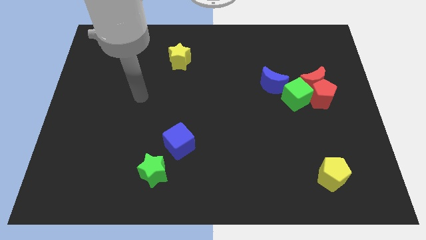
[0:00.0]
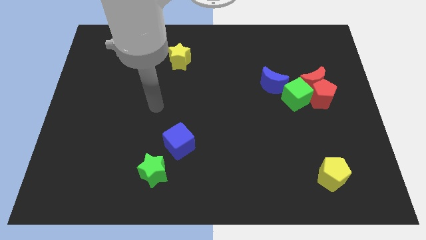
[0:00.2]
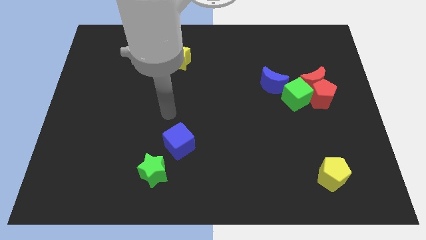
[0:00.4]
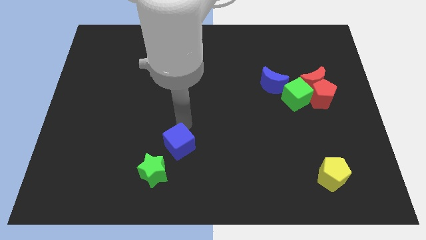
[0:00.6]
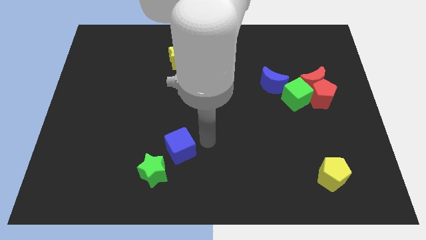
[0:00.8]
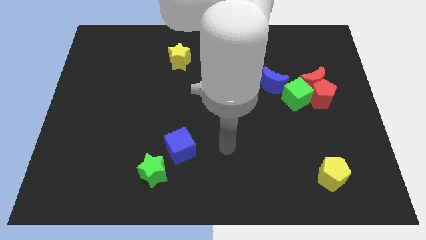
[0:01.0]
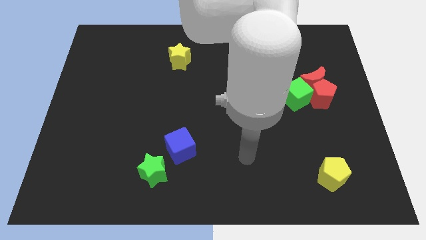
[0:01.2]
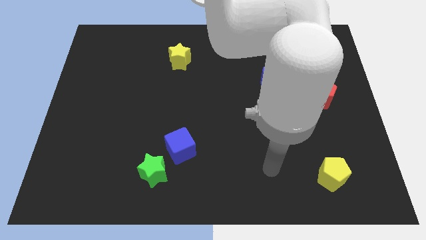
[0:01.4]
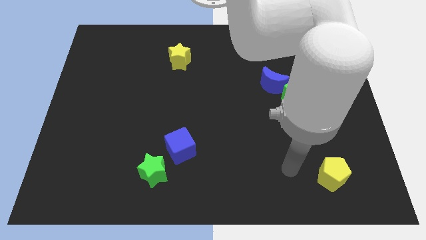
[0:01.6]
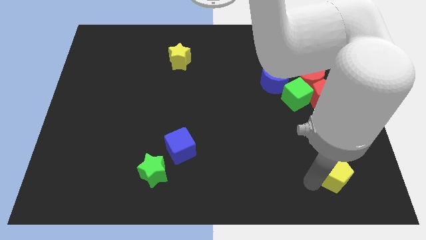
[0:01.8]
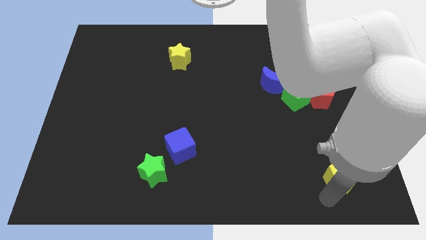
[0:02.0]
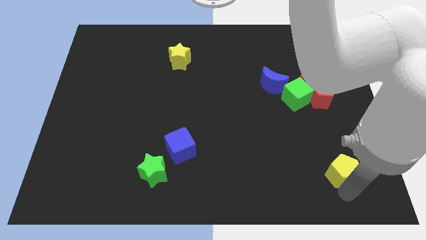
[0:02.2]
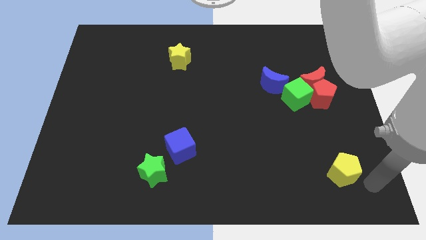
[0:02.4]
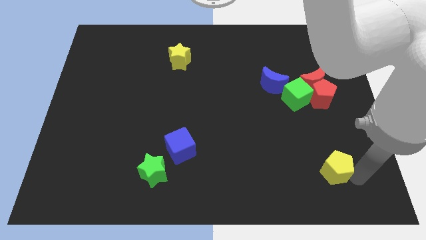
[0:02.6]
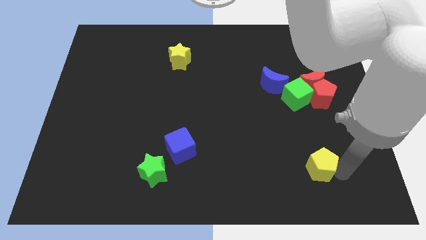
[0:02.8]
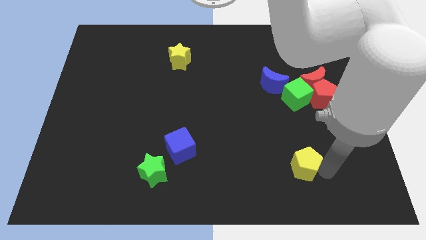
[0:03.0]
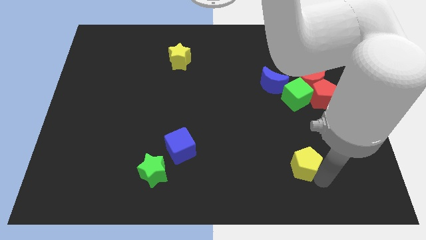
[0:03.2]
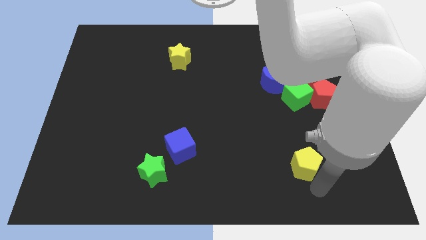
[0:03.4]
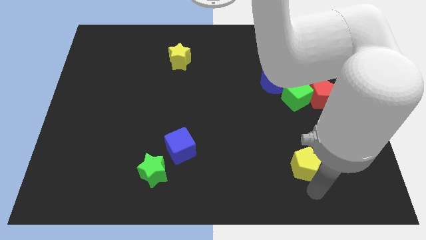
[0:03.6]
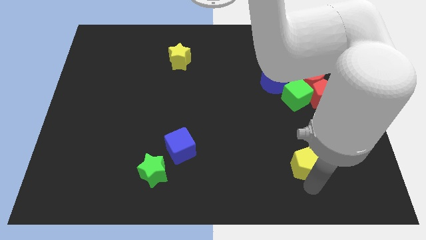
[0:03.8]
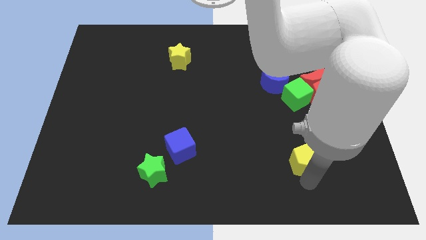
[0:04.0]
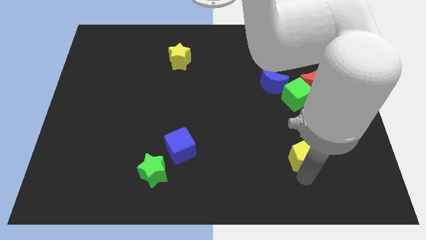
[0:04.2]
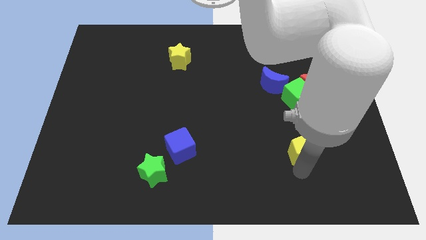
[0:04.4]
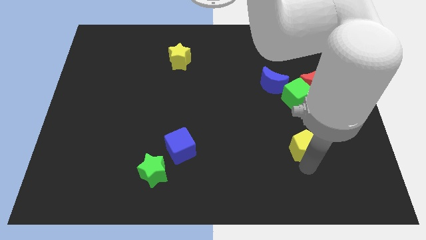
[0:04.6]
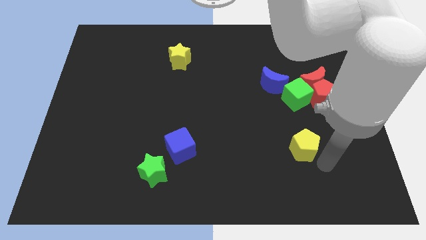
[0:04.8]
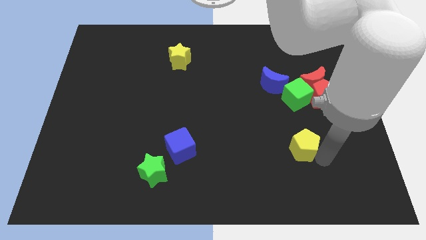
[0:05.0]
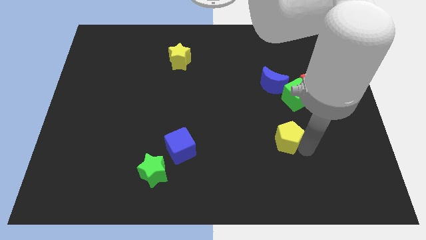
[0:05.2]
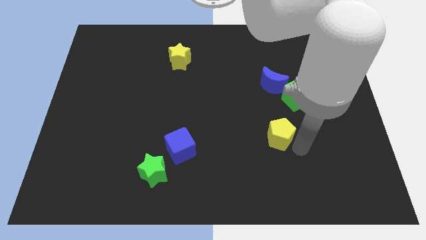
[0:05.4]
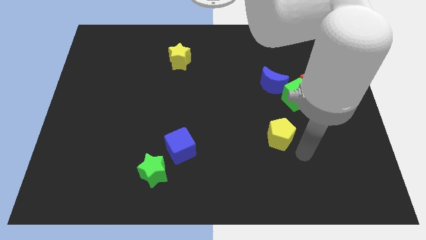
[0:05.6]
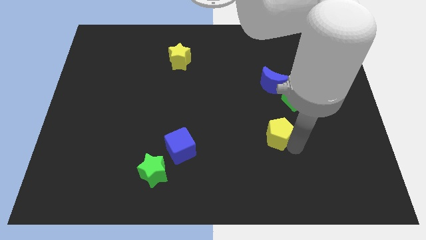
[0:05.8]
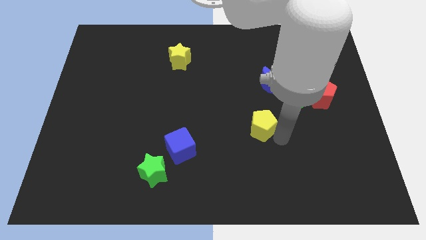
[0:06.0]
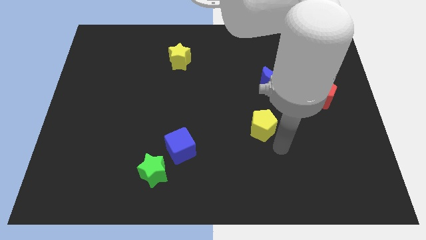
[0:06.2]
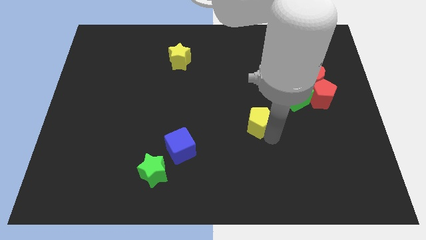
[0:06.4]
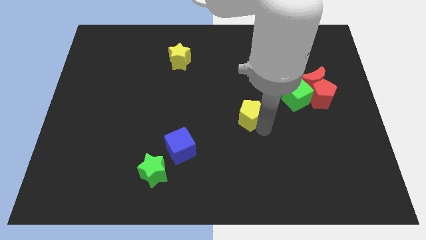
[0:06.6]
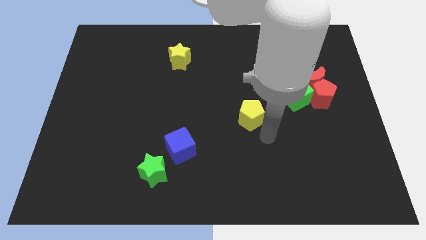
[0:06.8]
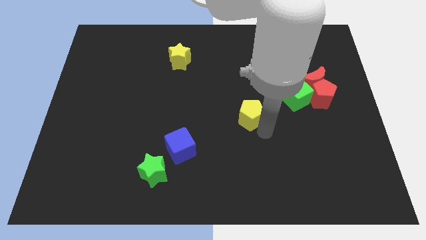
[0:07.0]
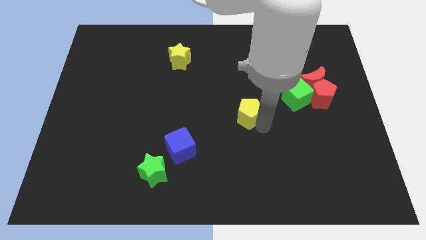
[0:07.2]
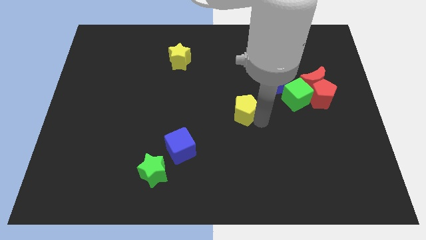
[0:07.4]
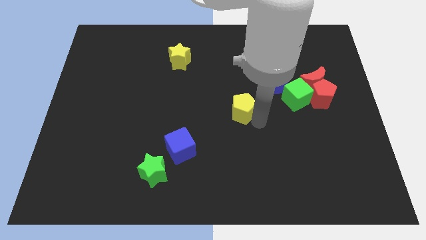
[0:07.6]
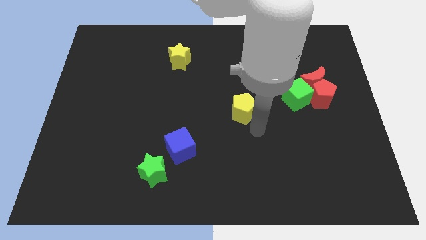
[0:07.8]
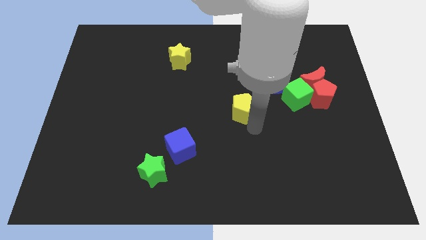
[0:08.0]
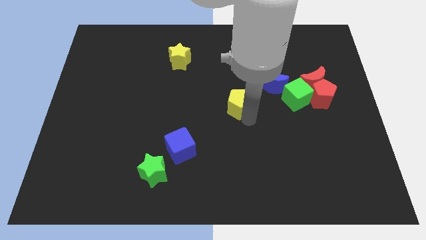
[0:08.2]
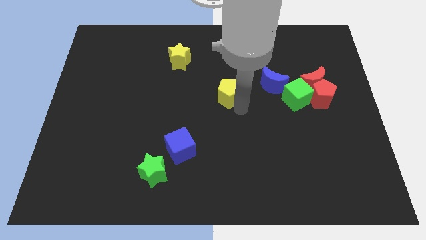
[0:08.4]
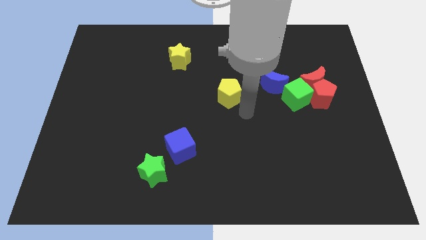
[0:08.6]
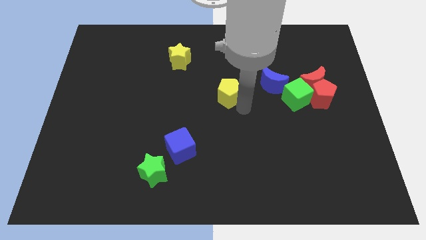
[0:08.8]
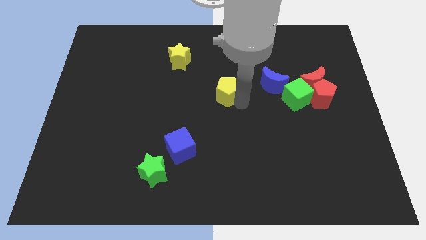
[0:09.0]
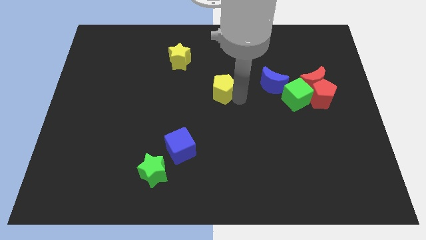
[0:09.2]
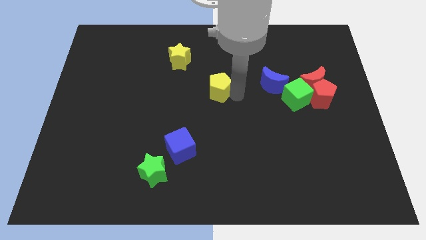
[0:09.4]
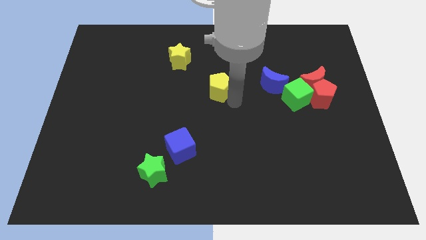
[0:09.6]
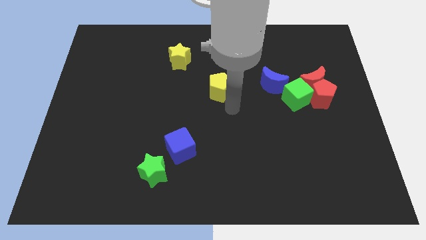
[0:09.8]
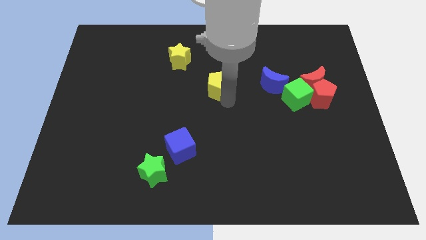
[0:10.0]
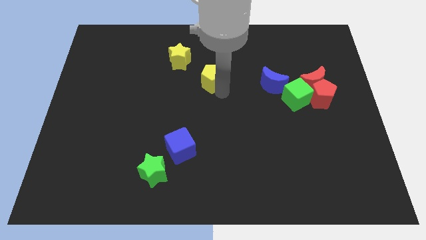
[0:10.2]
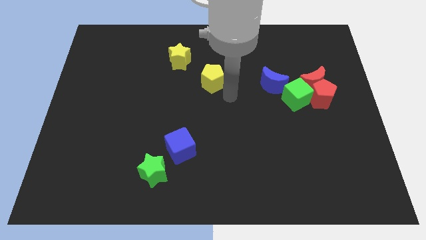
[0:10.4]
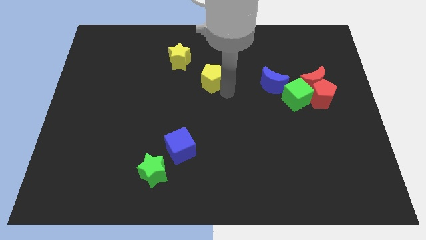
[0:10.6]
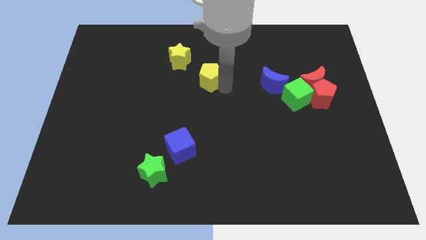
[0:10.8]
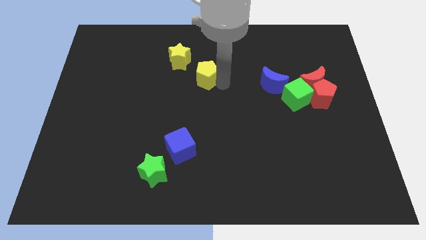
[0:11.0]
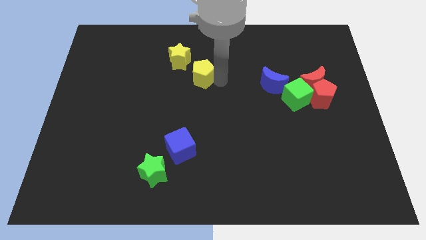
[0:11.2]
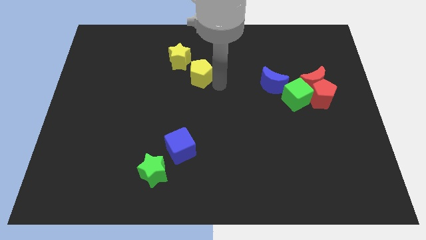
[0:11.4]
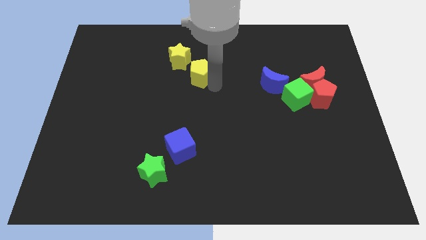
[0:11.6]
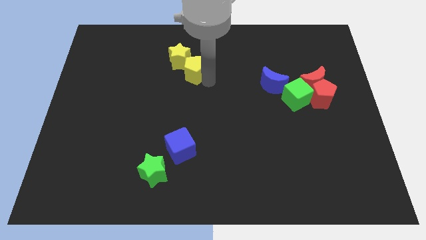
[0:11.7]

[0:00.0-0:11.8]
slide the yellow pentagon towards the yellow star
